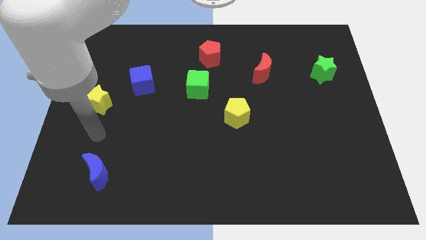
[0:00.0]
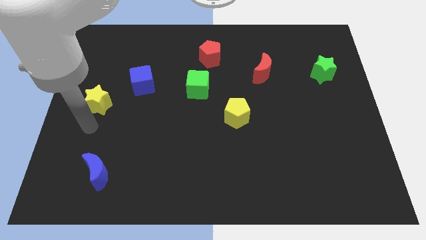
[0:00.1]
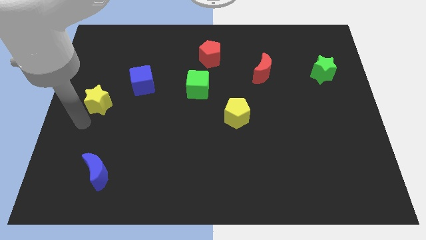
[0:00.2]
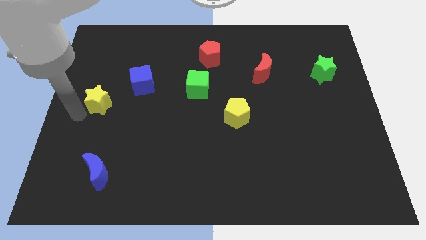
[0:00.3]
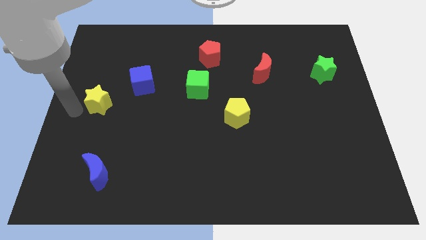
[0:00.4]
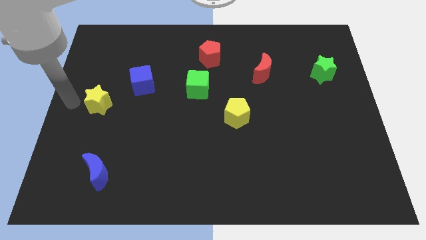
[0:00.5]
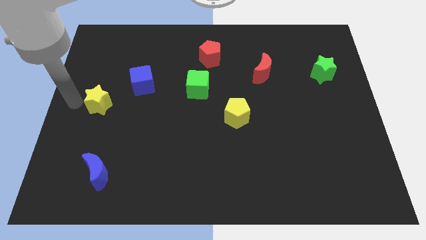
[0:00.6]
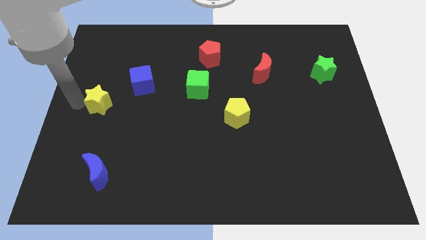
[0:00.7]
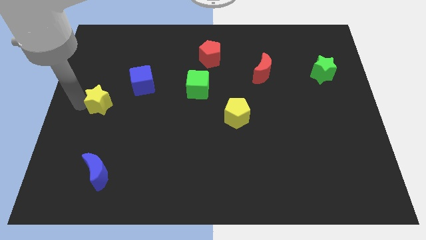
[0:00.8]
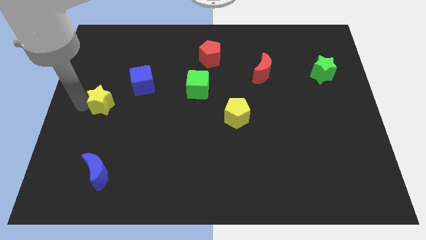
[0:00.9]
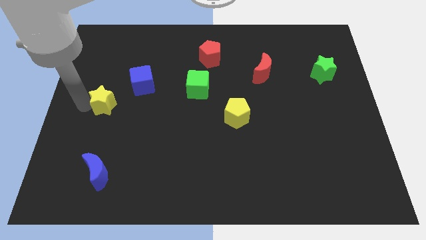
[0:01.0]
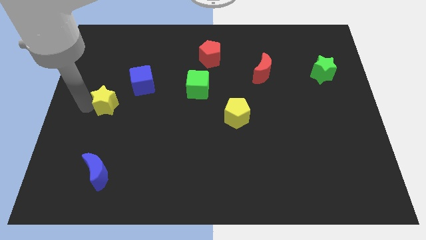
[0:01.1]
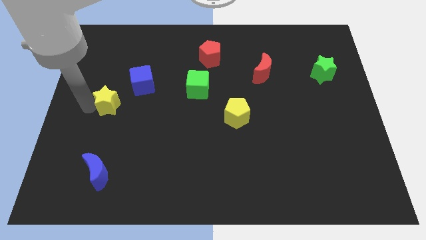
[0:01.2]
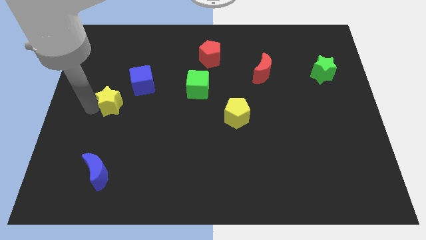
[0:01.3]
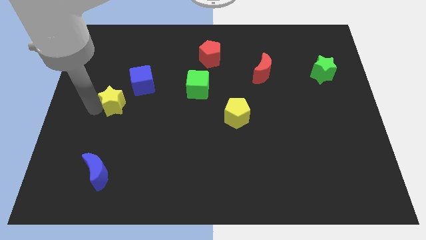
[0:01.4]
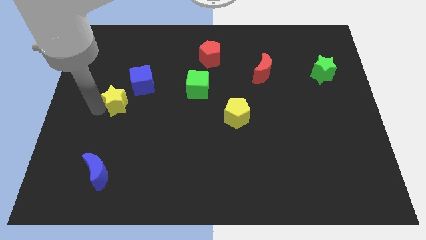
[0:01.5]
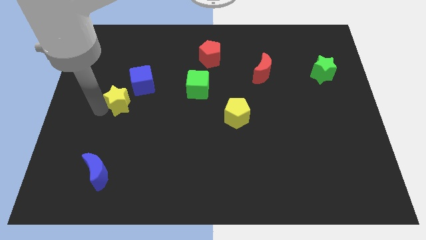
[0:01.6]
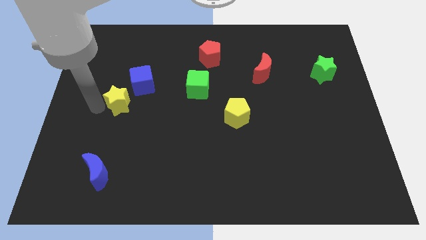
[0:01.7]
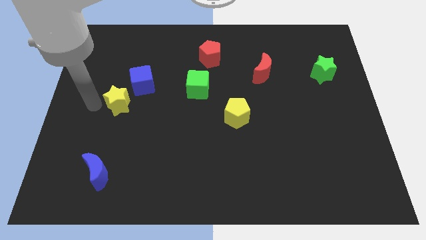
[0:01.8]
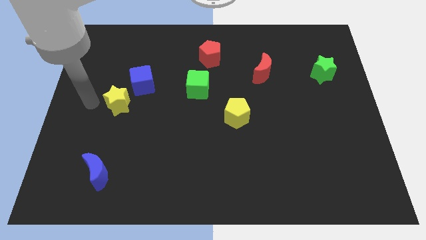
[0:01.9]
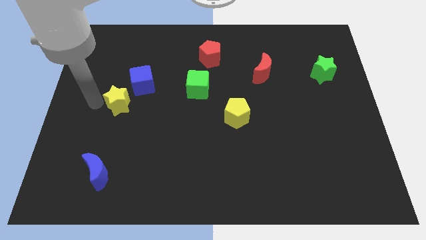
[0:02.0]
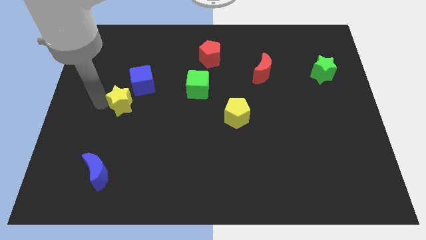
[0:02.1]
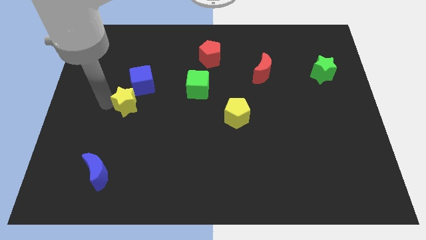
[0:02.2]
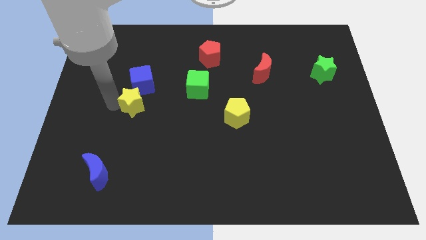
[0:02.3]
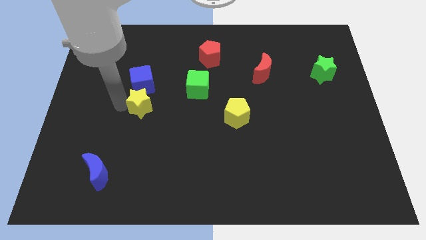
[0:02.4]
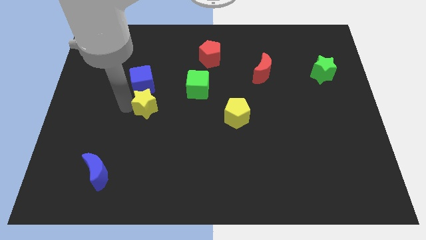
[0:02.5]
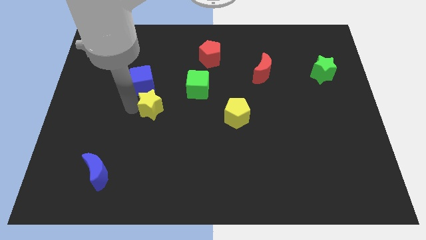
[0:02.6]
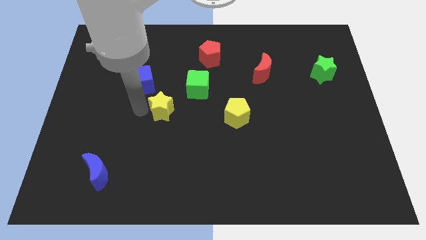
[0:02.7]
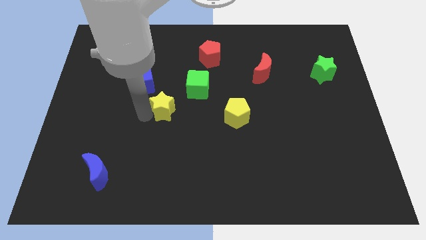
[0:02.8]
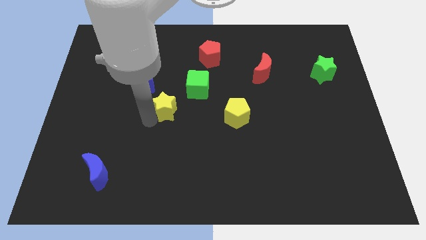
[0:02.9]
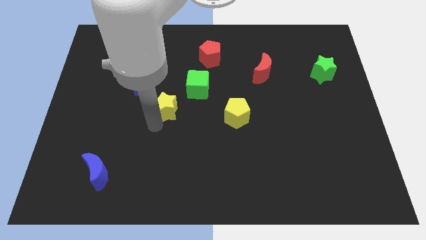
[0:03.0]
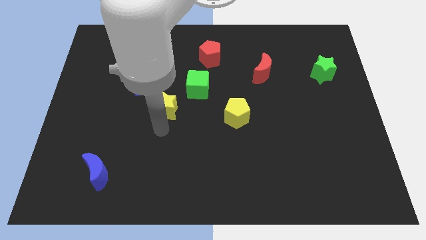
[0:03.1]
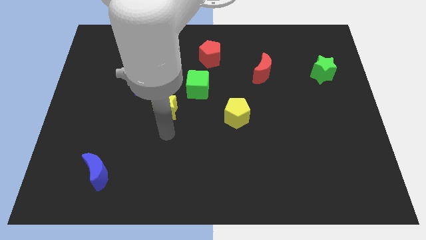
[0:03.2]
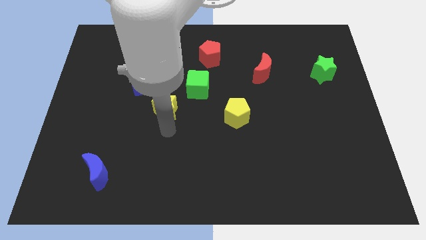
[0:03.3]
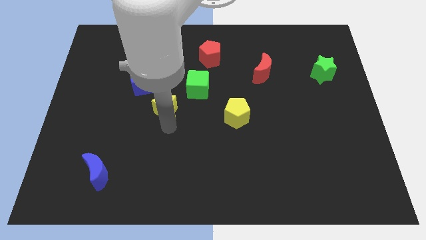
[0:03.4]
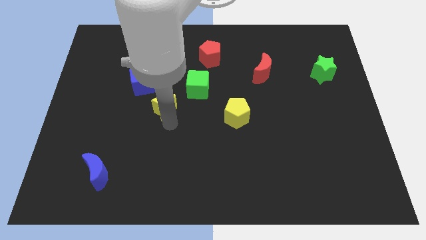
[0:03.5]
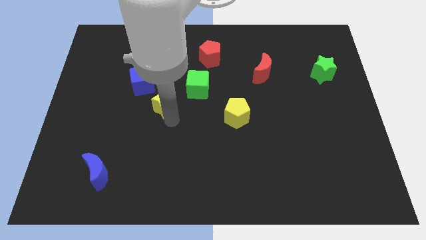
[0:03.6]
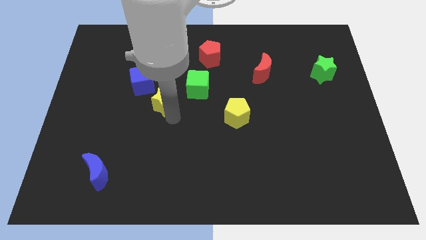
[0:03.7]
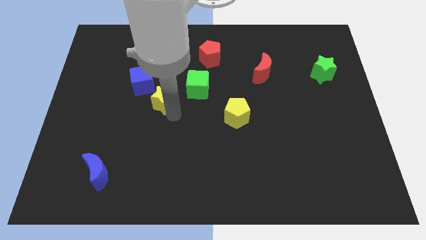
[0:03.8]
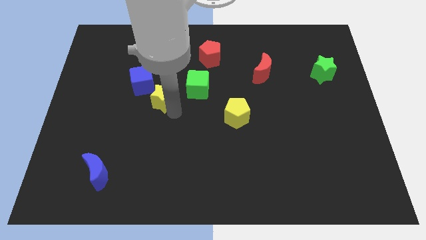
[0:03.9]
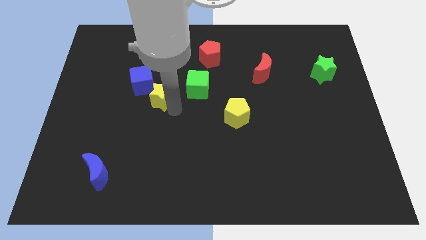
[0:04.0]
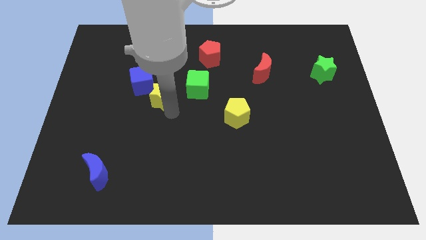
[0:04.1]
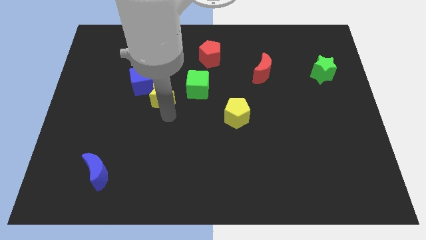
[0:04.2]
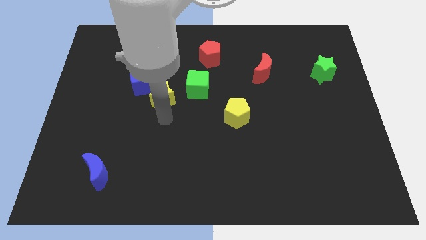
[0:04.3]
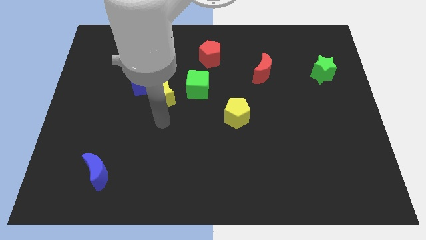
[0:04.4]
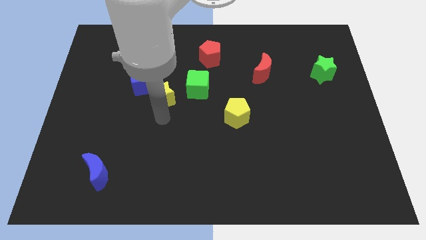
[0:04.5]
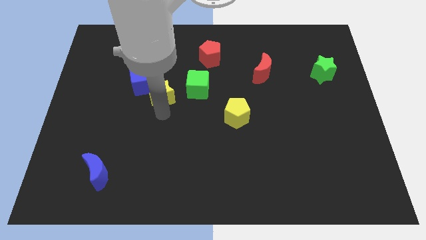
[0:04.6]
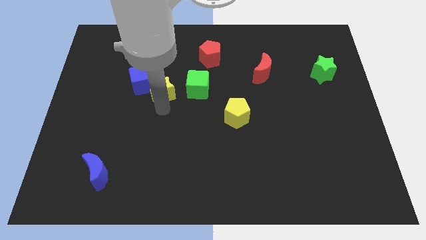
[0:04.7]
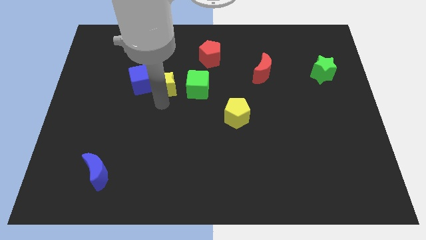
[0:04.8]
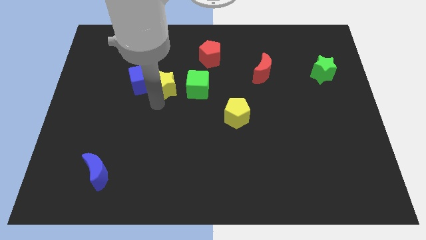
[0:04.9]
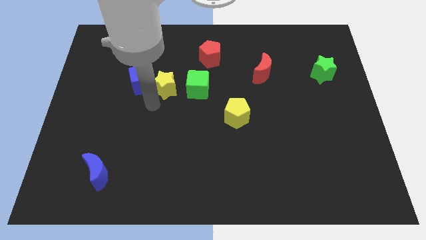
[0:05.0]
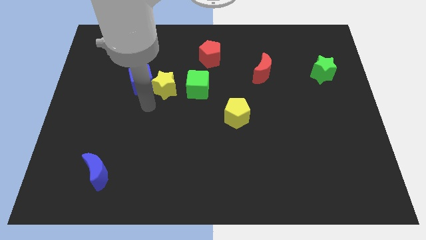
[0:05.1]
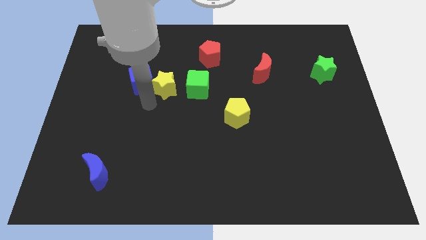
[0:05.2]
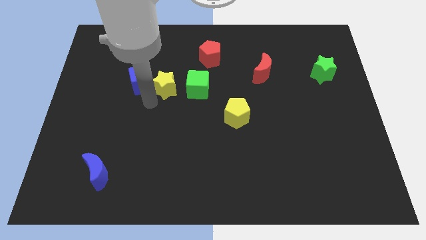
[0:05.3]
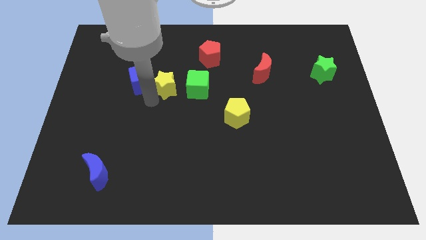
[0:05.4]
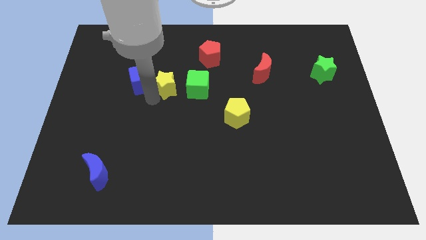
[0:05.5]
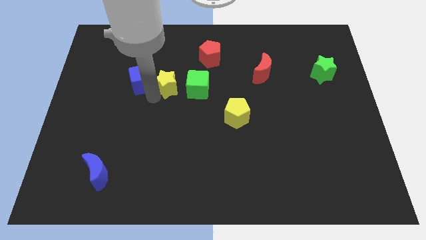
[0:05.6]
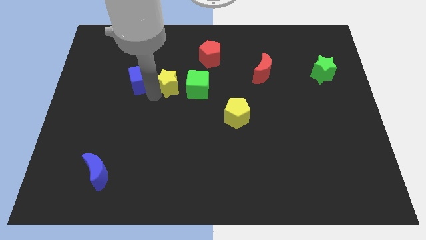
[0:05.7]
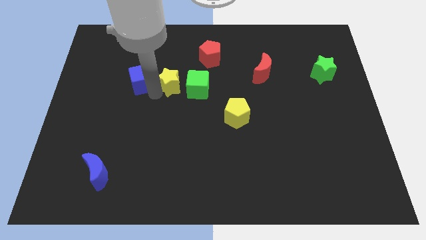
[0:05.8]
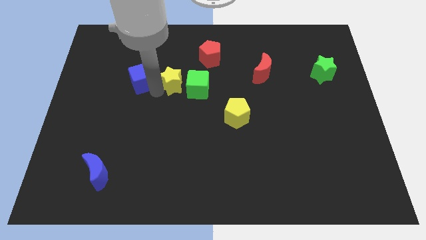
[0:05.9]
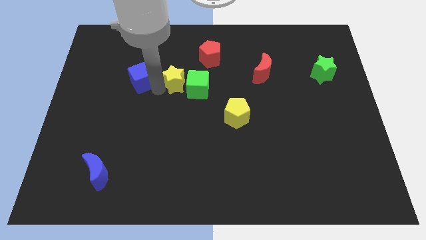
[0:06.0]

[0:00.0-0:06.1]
move the yellow star to the bottom left of the red pentagon

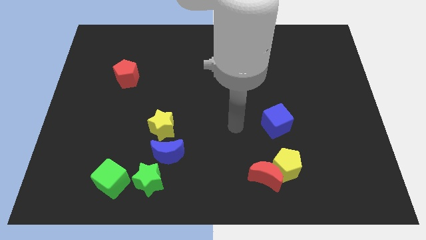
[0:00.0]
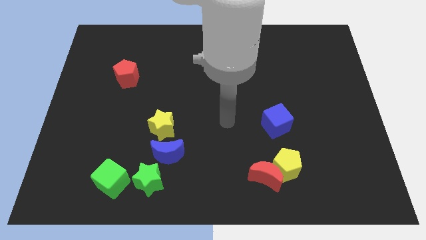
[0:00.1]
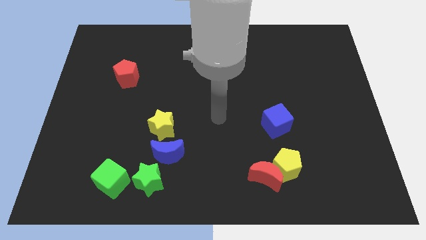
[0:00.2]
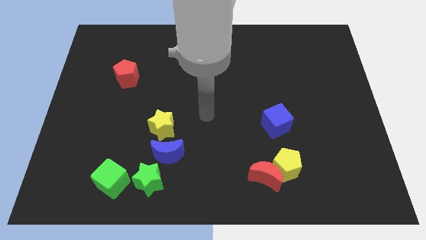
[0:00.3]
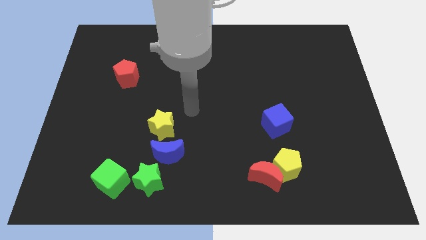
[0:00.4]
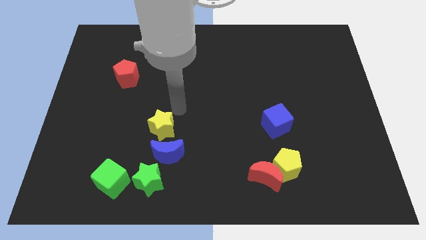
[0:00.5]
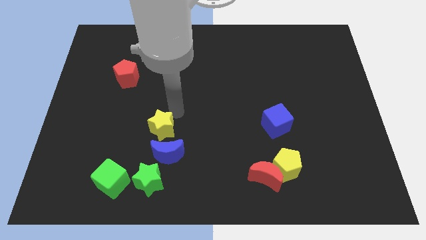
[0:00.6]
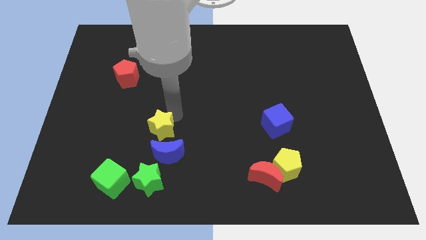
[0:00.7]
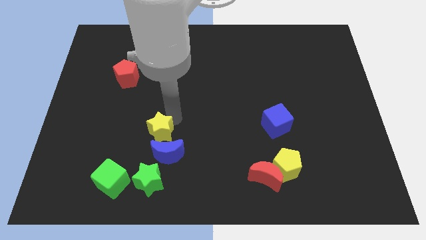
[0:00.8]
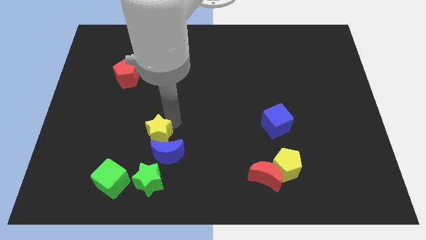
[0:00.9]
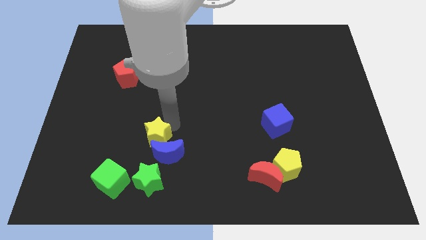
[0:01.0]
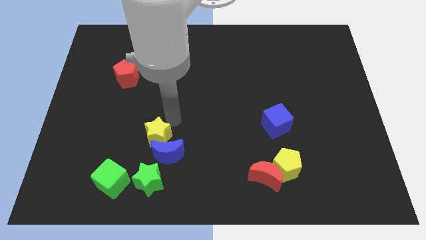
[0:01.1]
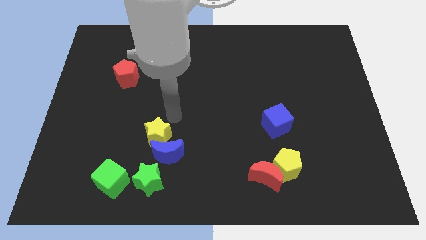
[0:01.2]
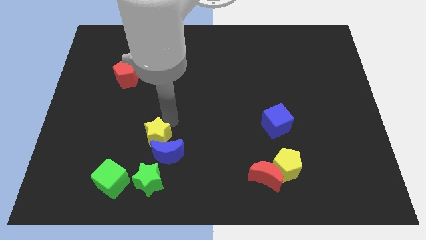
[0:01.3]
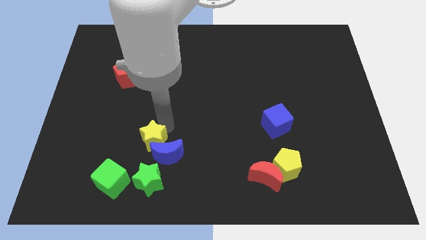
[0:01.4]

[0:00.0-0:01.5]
push the yellow star to the top right of the green cube
